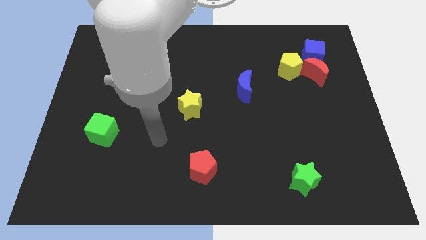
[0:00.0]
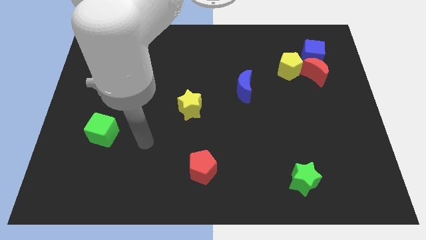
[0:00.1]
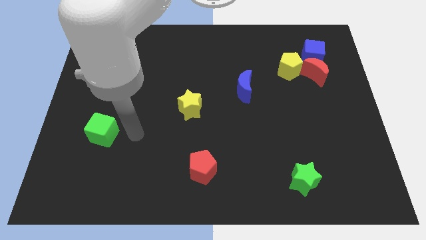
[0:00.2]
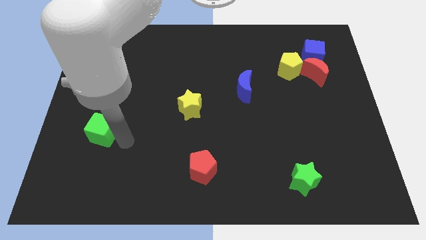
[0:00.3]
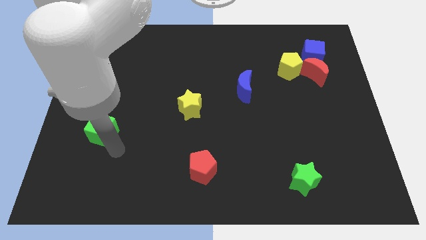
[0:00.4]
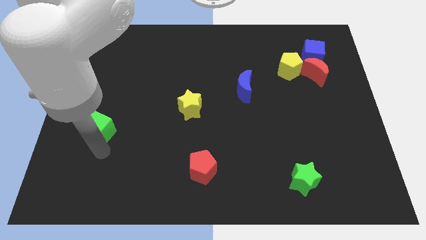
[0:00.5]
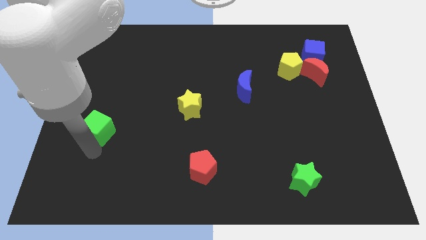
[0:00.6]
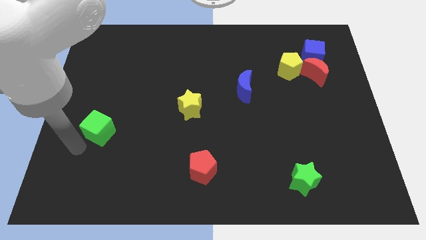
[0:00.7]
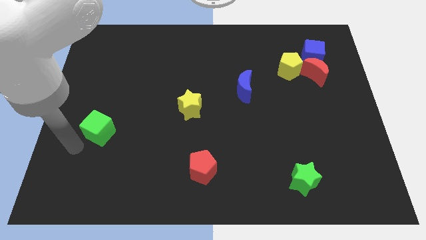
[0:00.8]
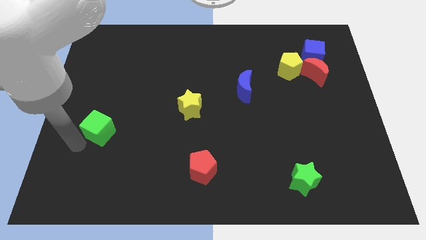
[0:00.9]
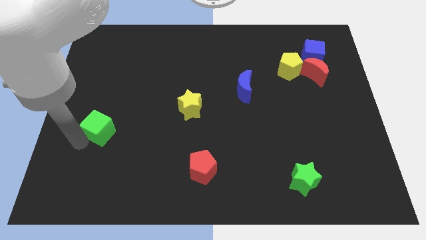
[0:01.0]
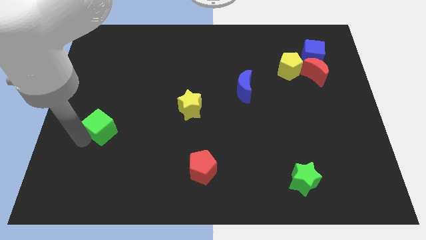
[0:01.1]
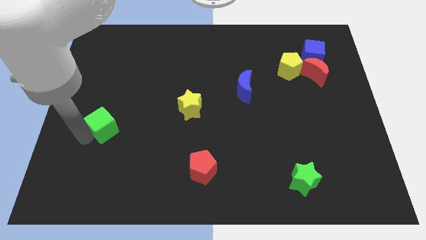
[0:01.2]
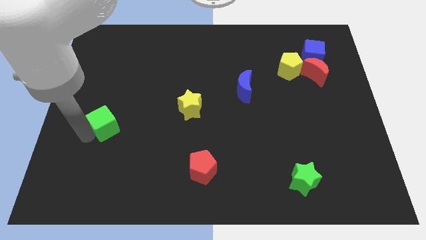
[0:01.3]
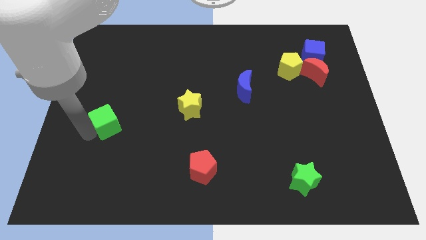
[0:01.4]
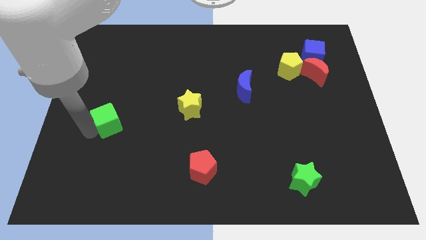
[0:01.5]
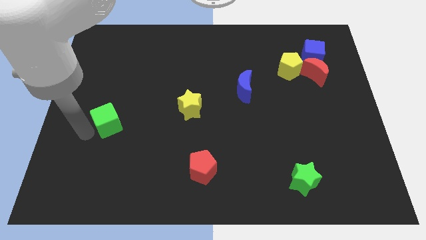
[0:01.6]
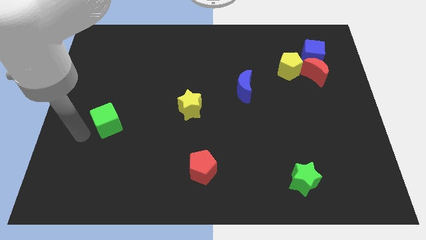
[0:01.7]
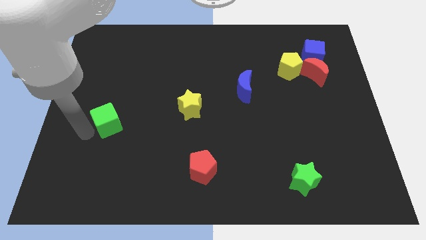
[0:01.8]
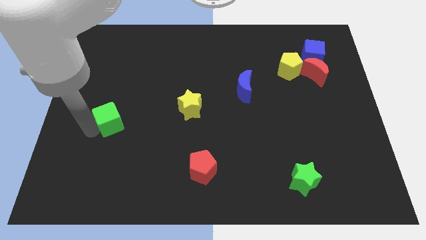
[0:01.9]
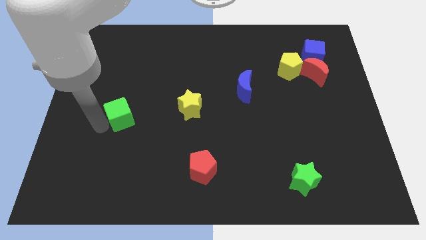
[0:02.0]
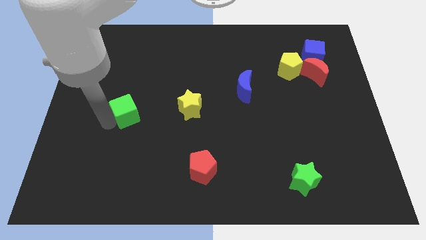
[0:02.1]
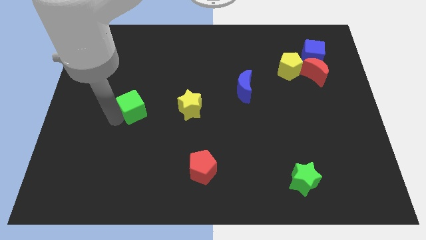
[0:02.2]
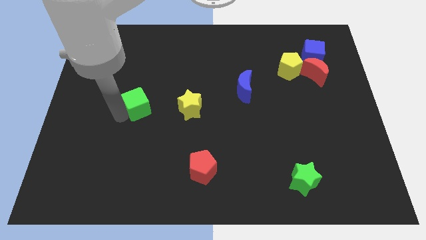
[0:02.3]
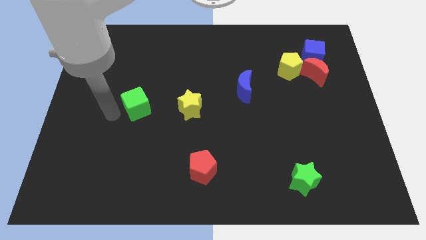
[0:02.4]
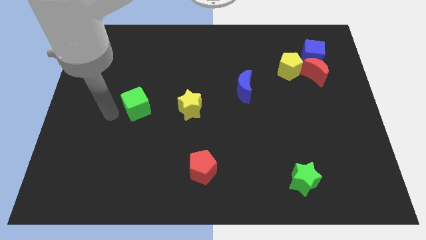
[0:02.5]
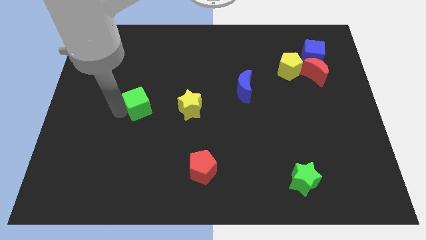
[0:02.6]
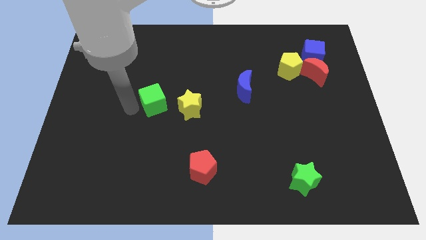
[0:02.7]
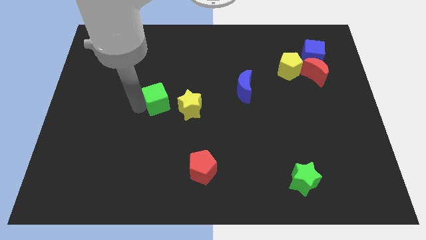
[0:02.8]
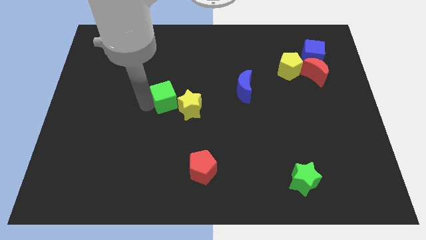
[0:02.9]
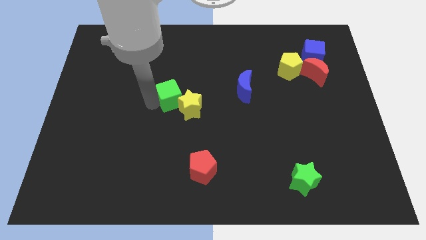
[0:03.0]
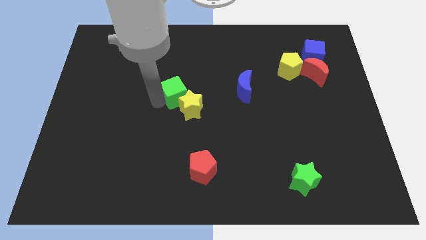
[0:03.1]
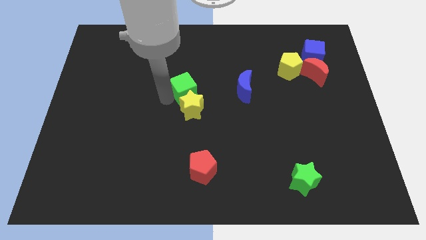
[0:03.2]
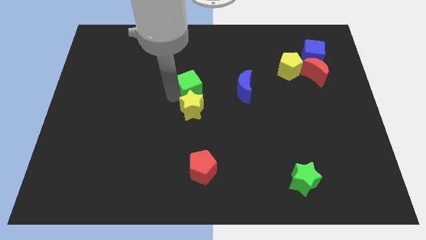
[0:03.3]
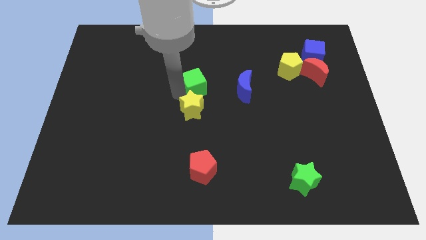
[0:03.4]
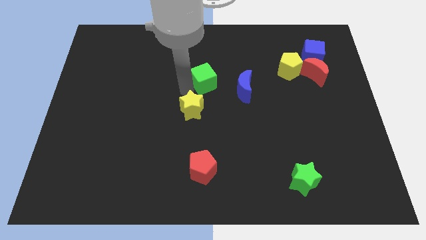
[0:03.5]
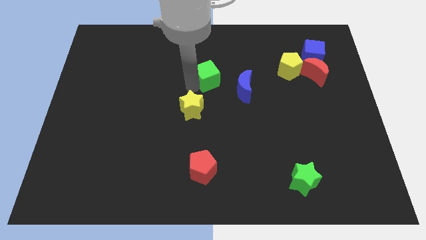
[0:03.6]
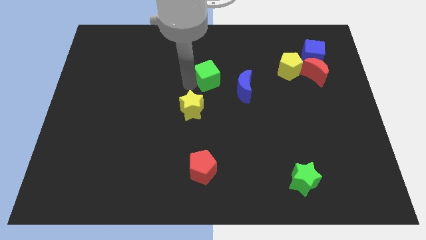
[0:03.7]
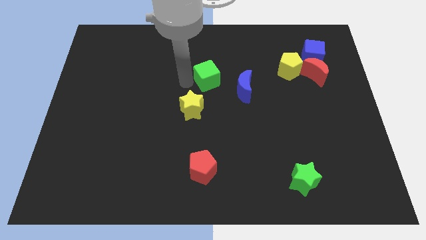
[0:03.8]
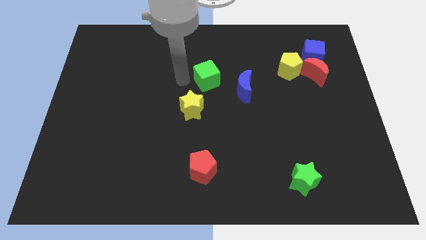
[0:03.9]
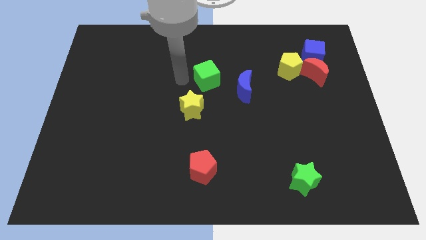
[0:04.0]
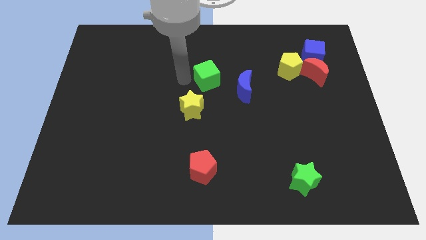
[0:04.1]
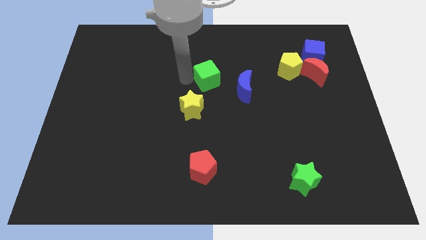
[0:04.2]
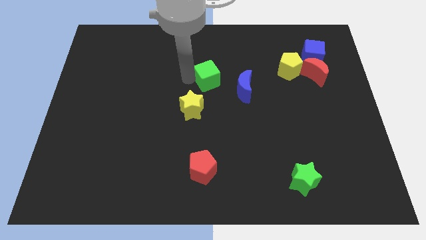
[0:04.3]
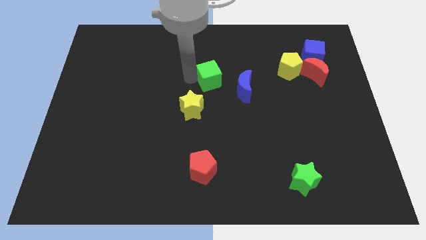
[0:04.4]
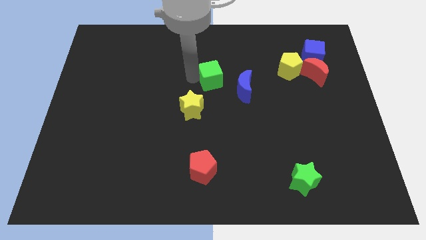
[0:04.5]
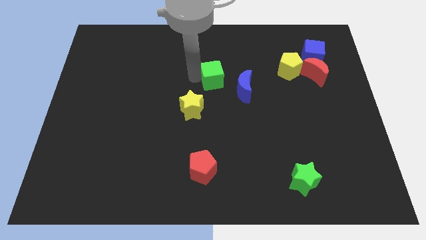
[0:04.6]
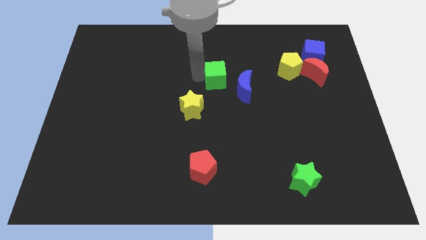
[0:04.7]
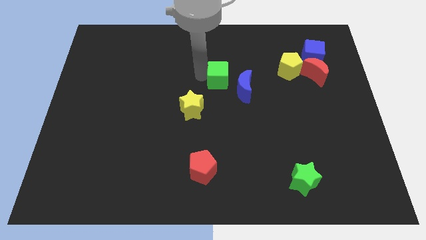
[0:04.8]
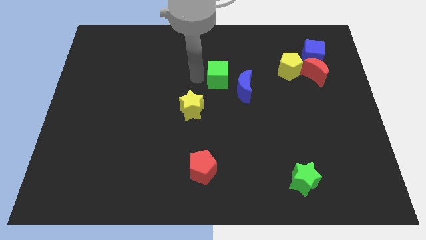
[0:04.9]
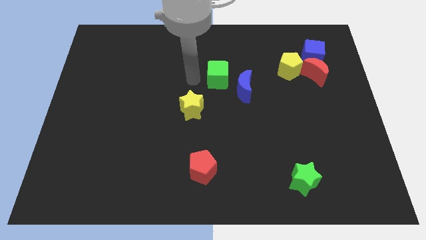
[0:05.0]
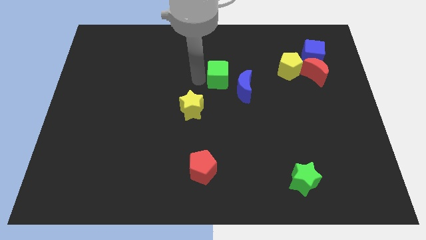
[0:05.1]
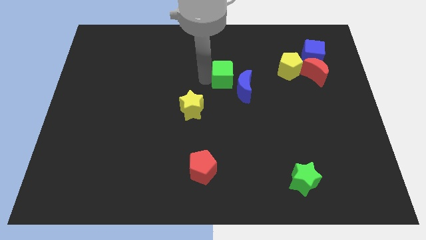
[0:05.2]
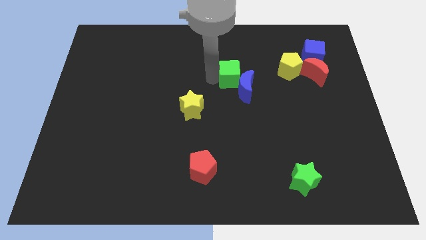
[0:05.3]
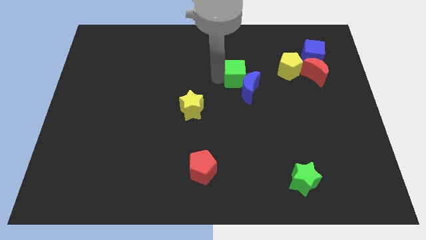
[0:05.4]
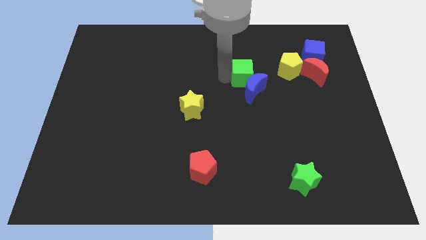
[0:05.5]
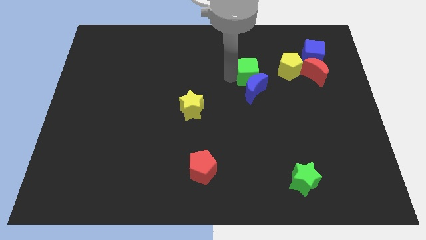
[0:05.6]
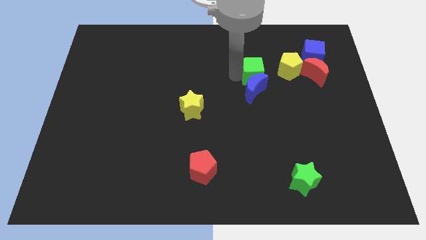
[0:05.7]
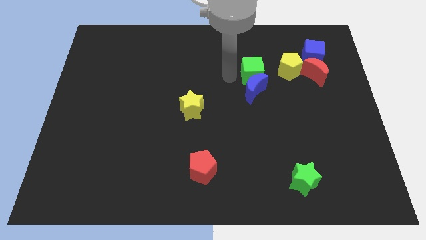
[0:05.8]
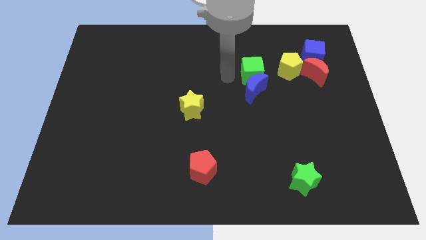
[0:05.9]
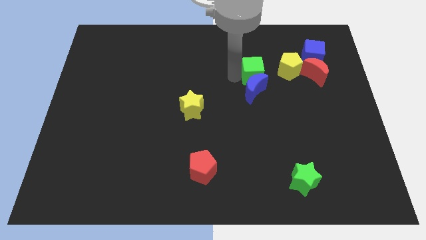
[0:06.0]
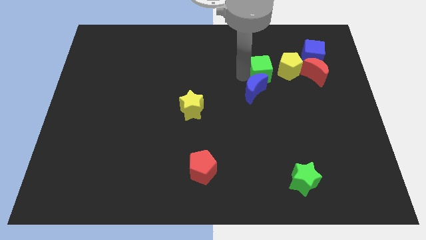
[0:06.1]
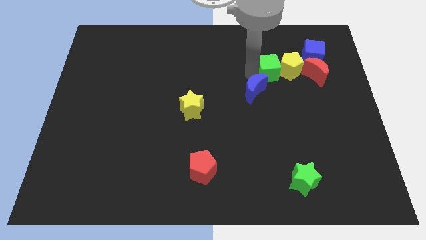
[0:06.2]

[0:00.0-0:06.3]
push the green cube close to the yellow pentagon

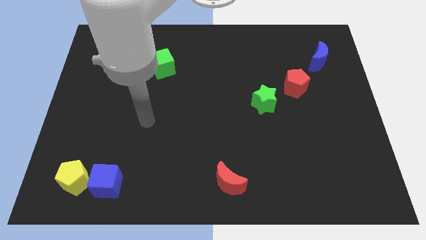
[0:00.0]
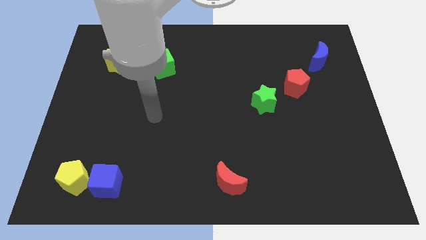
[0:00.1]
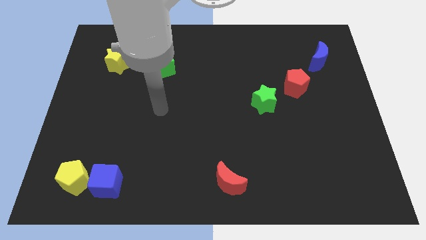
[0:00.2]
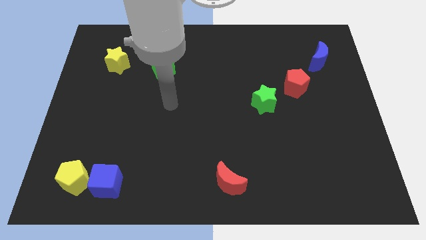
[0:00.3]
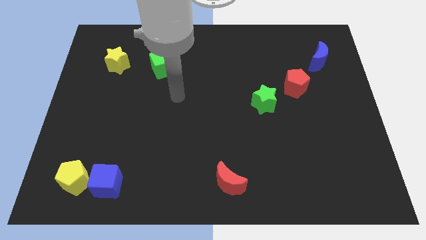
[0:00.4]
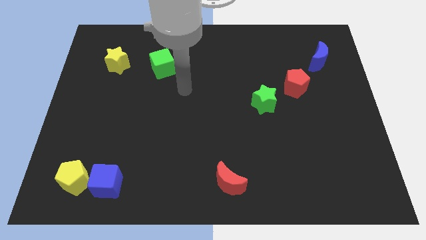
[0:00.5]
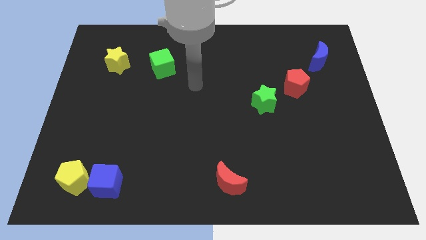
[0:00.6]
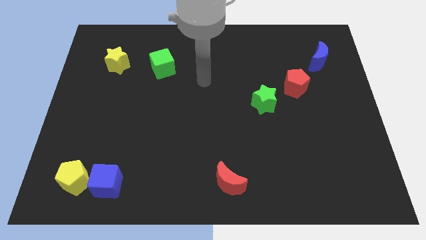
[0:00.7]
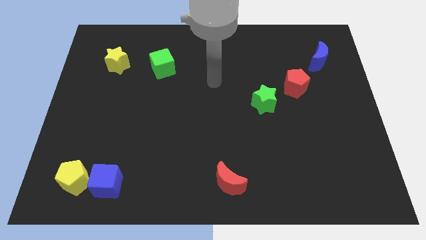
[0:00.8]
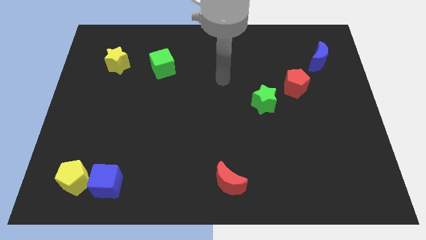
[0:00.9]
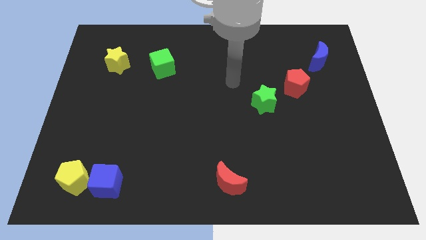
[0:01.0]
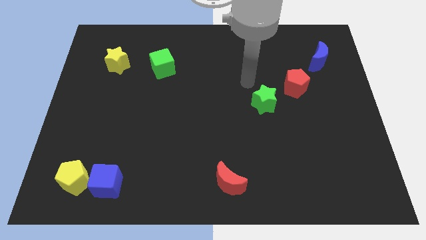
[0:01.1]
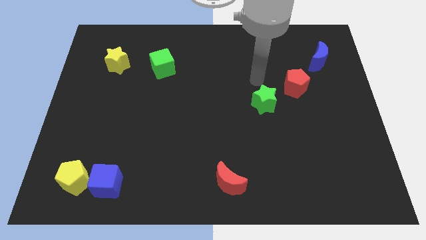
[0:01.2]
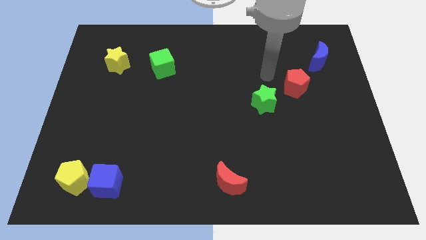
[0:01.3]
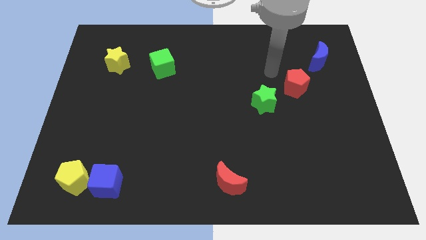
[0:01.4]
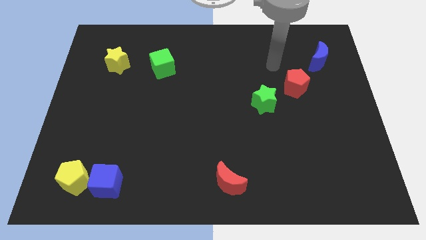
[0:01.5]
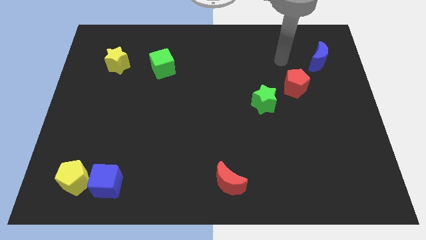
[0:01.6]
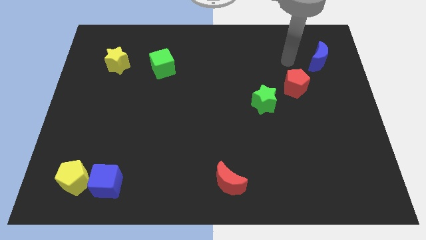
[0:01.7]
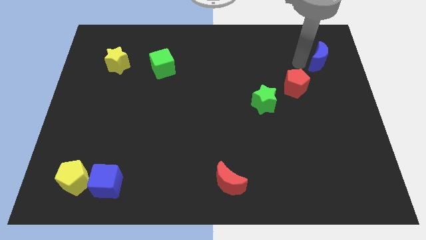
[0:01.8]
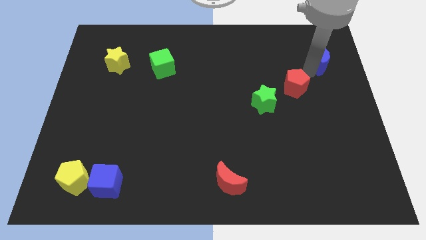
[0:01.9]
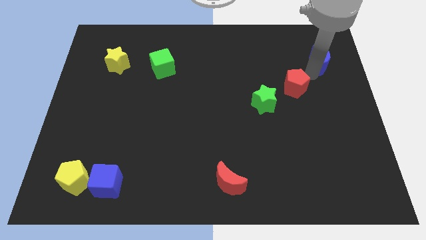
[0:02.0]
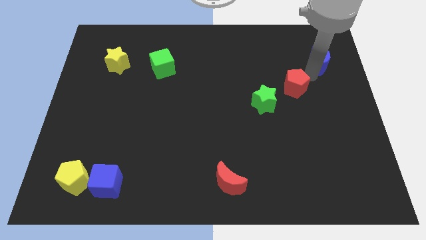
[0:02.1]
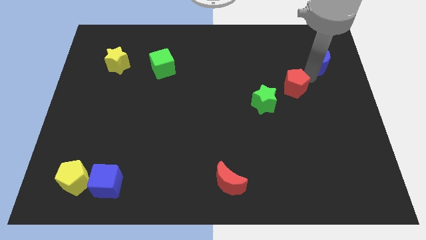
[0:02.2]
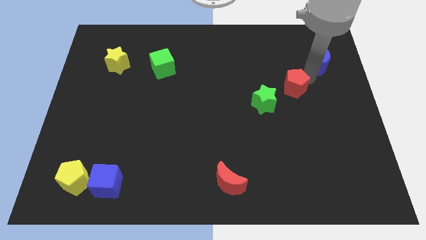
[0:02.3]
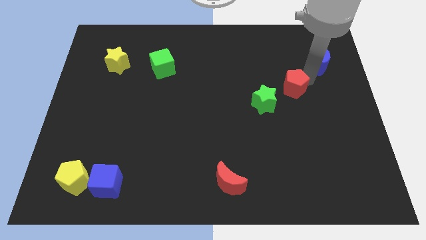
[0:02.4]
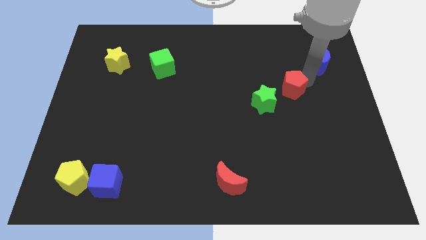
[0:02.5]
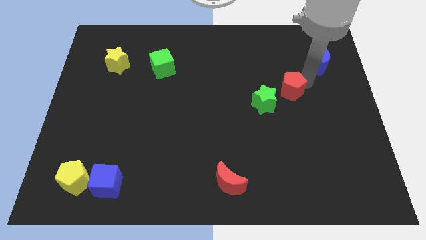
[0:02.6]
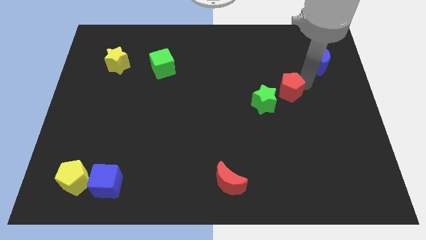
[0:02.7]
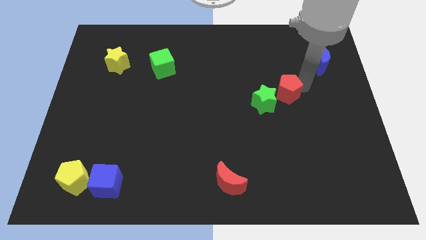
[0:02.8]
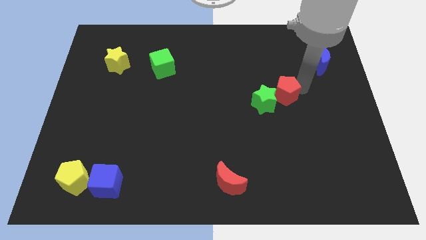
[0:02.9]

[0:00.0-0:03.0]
slide the red pentagon towards the green star
